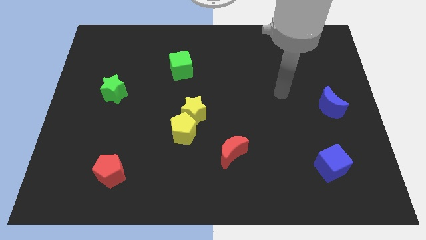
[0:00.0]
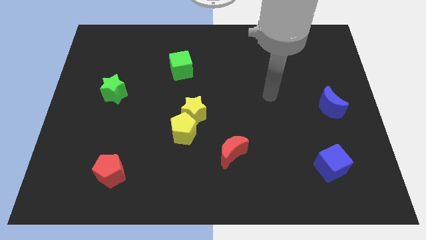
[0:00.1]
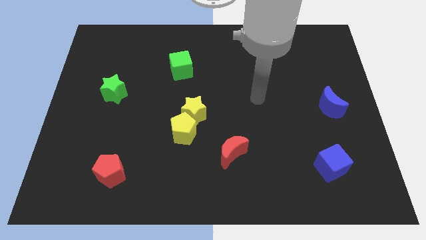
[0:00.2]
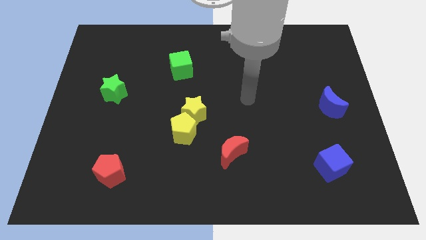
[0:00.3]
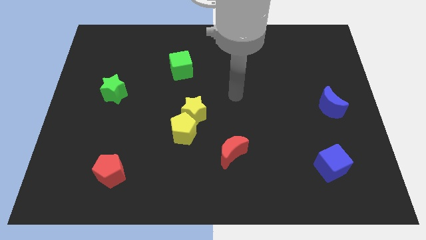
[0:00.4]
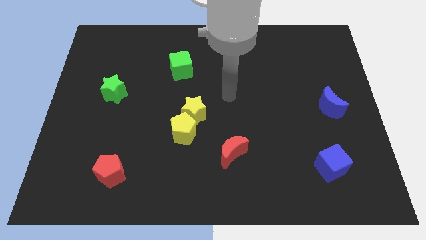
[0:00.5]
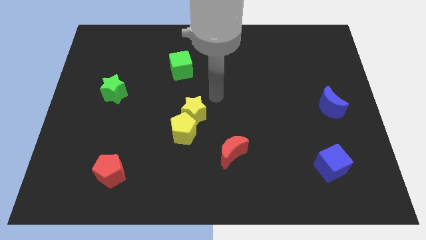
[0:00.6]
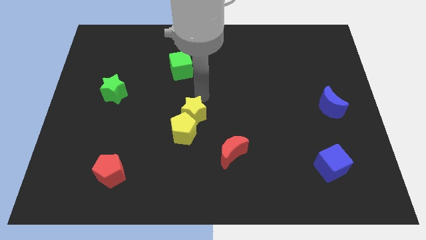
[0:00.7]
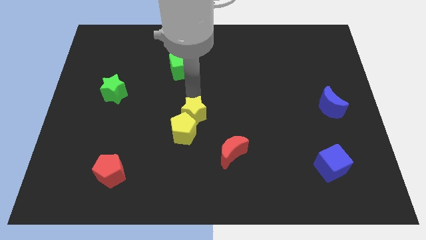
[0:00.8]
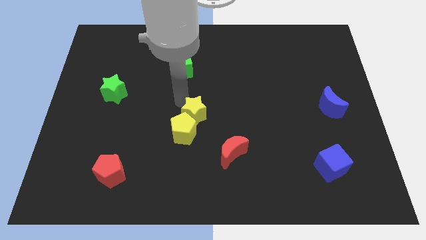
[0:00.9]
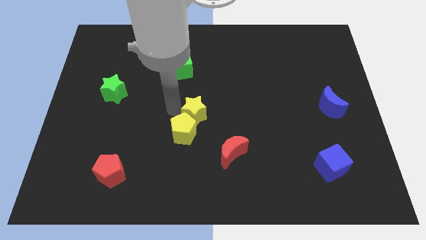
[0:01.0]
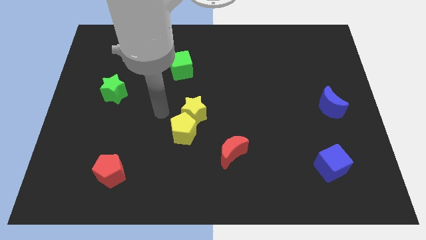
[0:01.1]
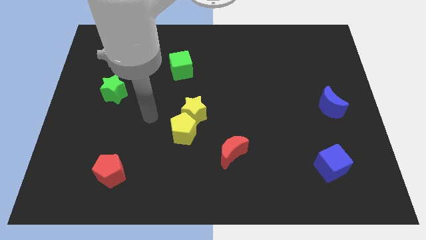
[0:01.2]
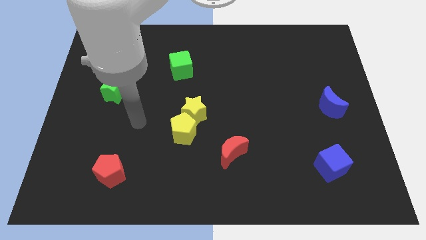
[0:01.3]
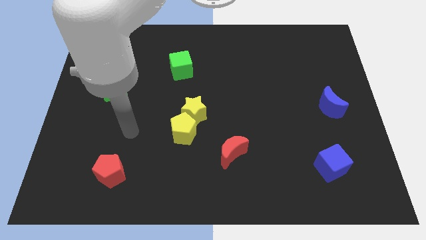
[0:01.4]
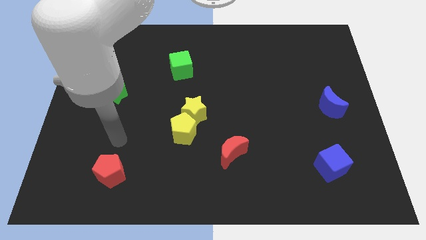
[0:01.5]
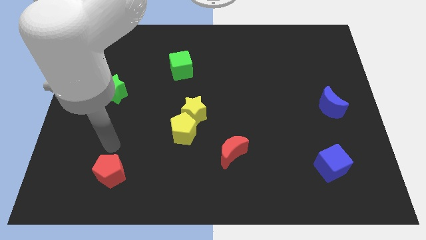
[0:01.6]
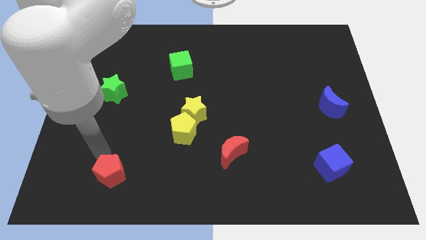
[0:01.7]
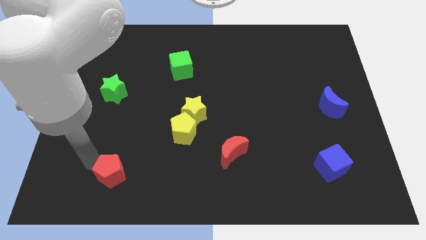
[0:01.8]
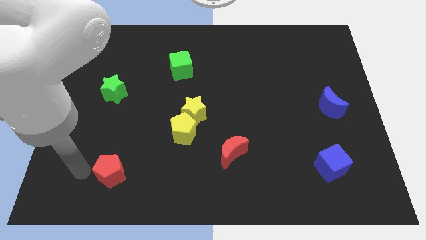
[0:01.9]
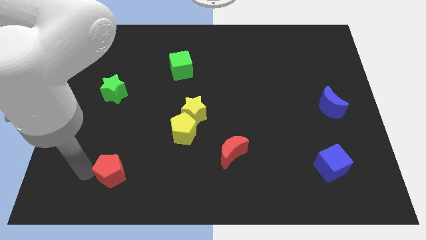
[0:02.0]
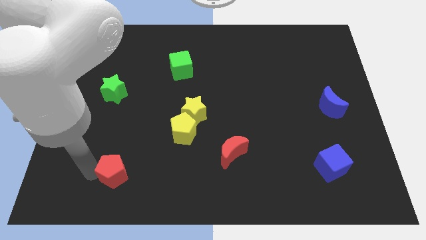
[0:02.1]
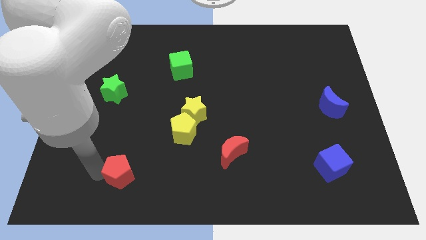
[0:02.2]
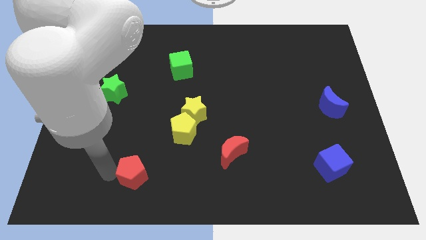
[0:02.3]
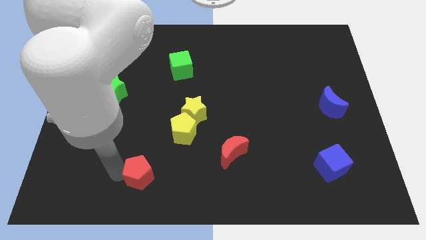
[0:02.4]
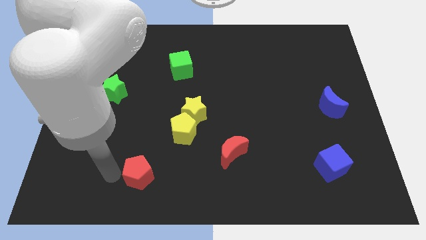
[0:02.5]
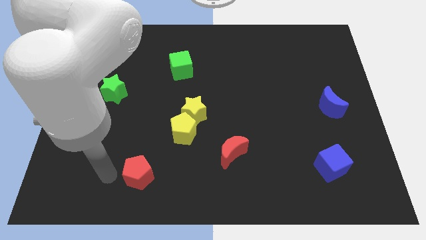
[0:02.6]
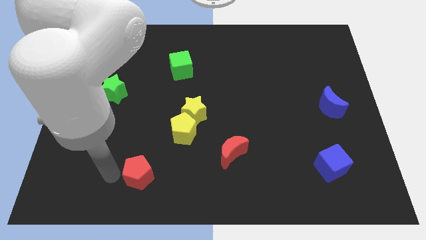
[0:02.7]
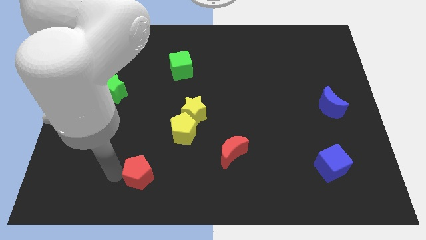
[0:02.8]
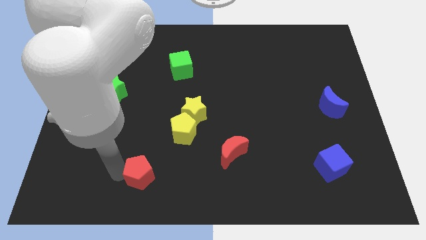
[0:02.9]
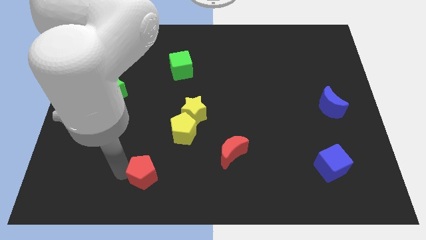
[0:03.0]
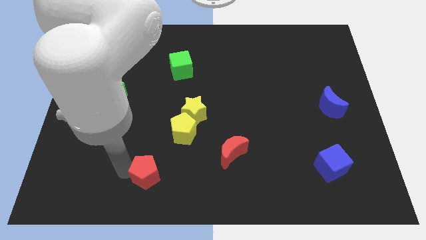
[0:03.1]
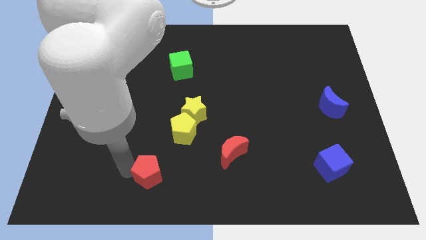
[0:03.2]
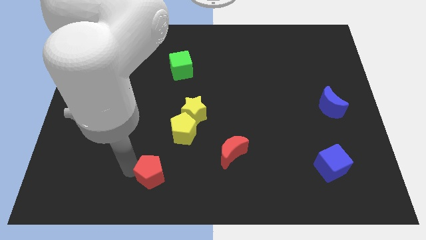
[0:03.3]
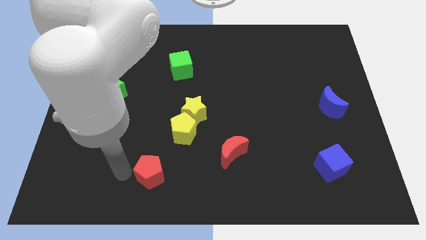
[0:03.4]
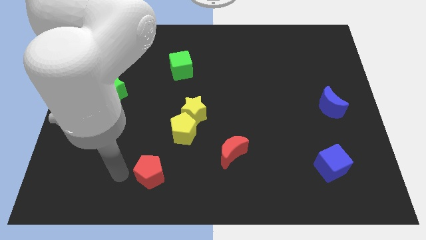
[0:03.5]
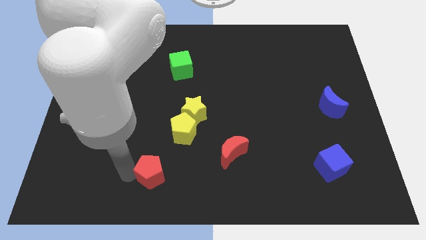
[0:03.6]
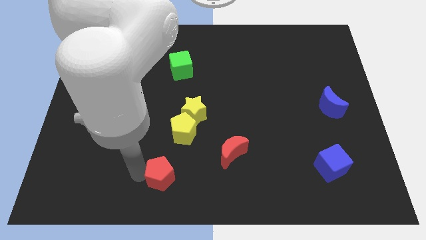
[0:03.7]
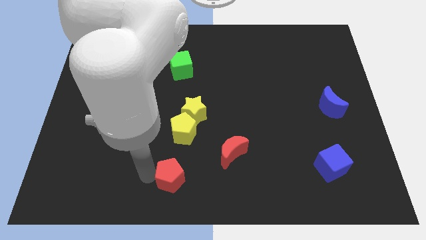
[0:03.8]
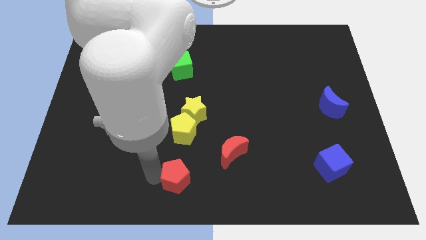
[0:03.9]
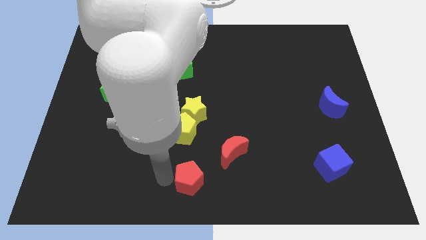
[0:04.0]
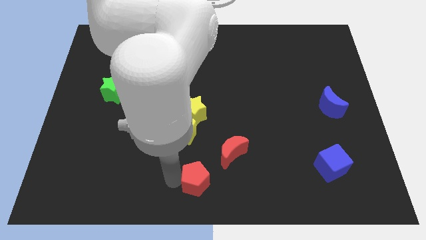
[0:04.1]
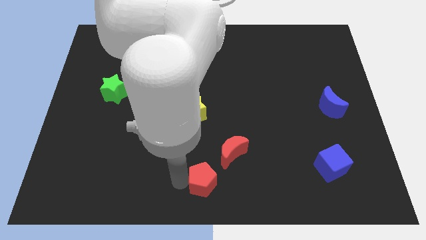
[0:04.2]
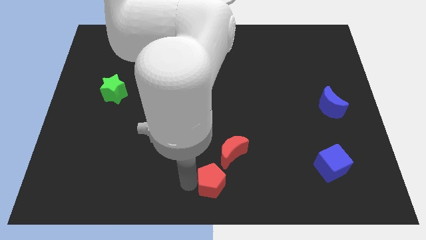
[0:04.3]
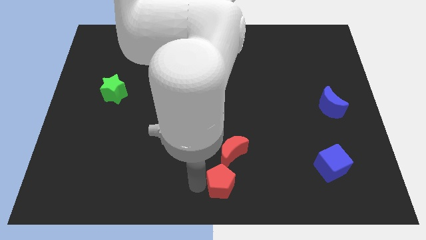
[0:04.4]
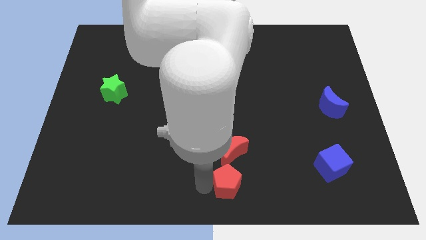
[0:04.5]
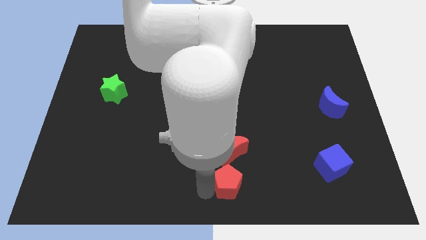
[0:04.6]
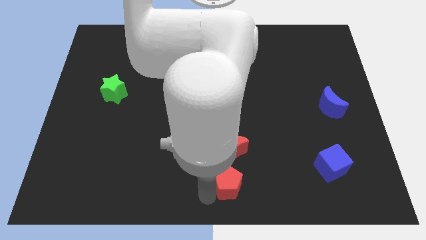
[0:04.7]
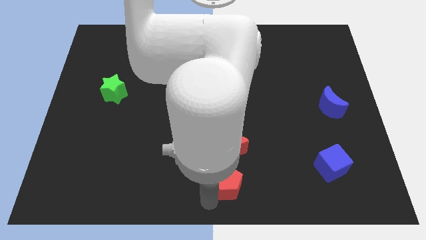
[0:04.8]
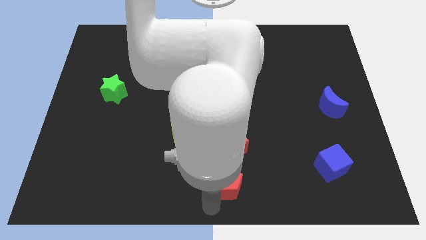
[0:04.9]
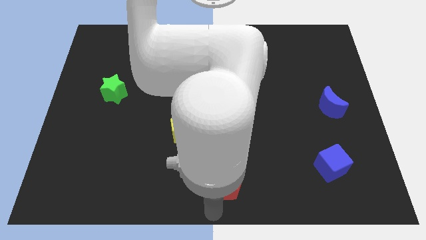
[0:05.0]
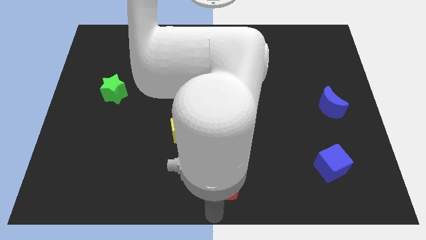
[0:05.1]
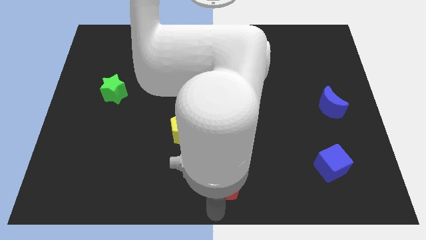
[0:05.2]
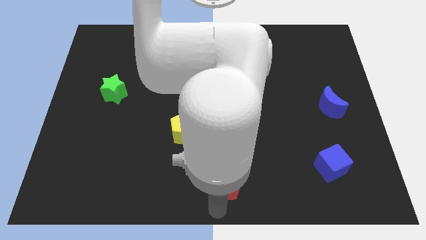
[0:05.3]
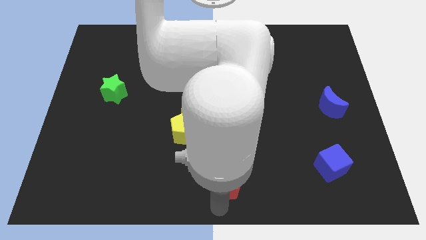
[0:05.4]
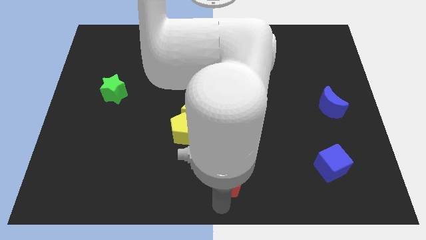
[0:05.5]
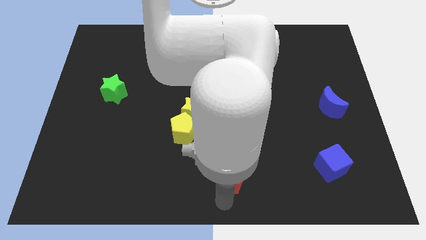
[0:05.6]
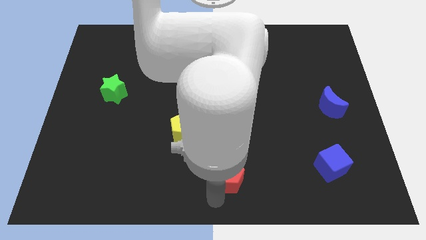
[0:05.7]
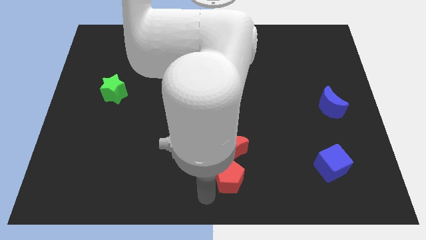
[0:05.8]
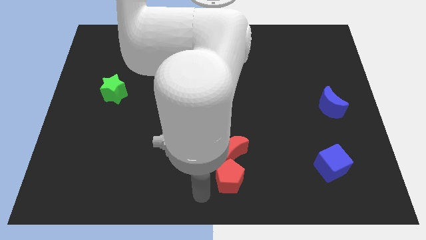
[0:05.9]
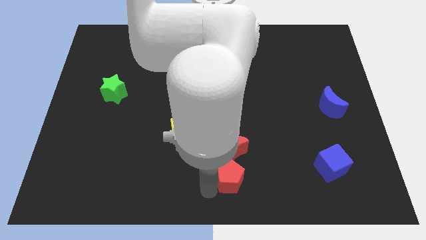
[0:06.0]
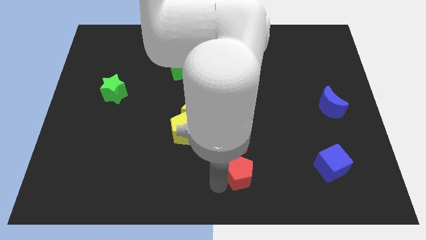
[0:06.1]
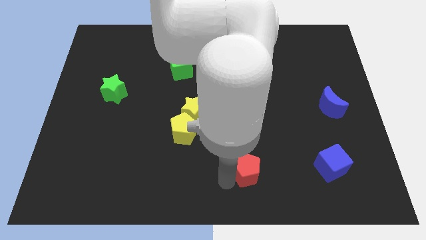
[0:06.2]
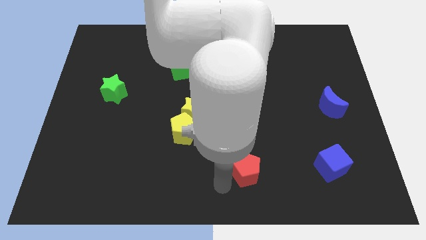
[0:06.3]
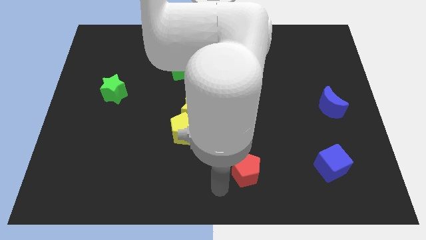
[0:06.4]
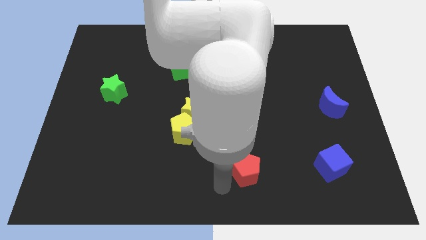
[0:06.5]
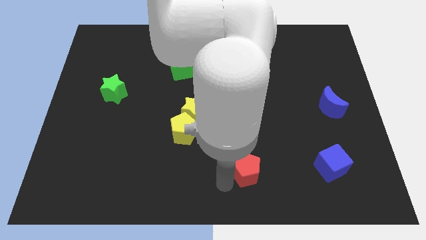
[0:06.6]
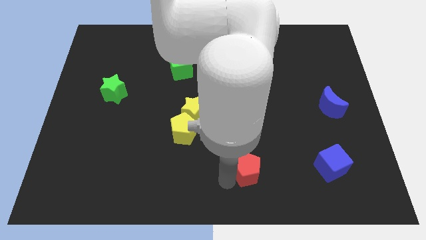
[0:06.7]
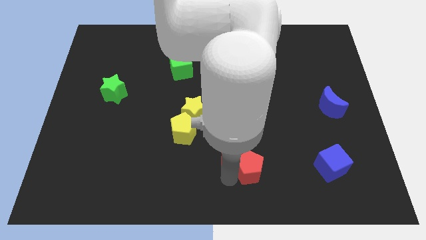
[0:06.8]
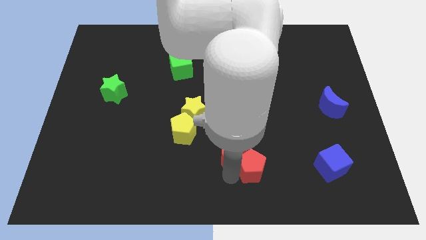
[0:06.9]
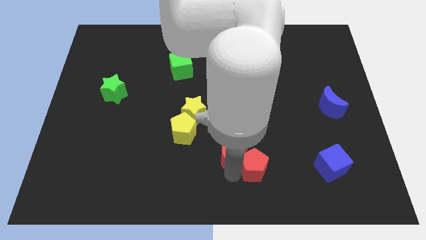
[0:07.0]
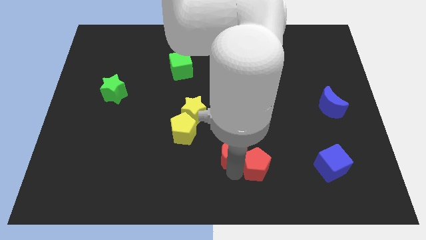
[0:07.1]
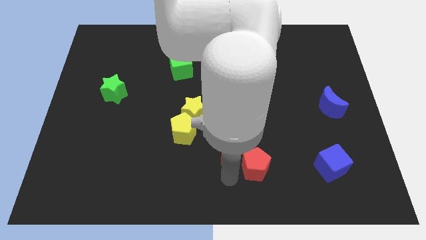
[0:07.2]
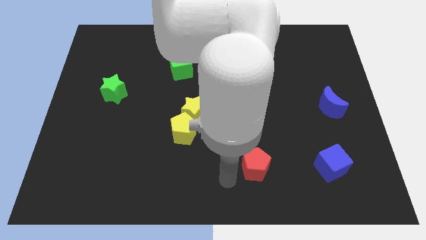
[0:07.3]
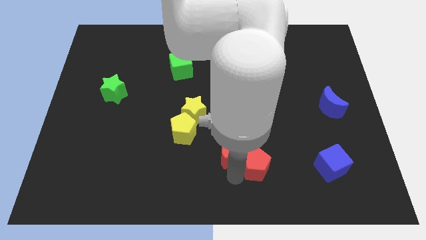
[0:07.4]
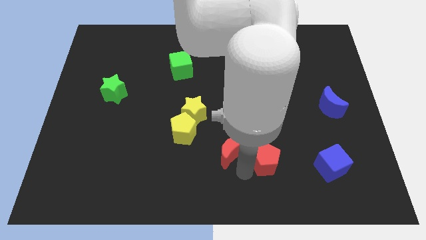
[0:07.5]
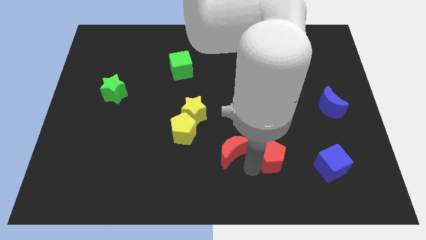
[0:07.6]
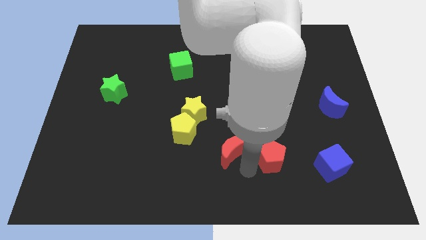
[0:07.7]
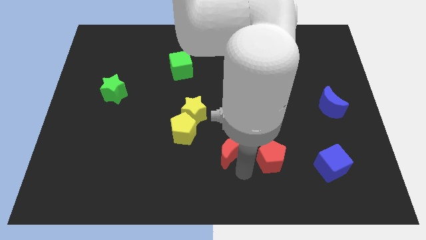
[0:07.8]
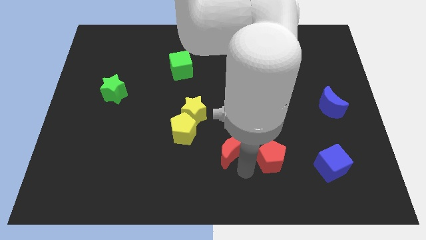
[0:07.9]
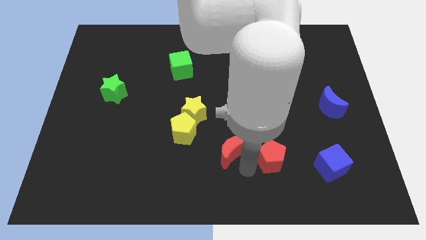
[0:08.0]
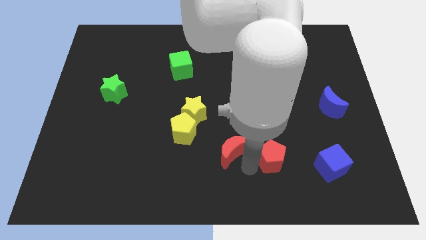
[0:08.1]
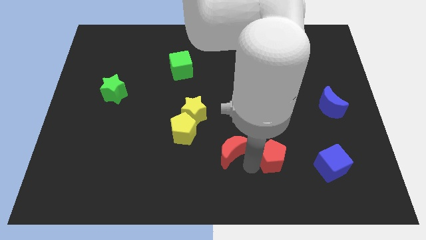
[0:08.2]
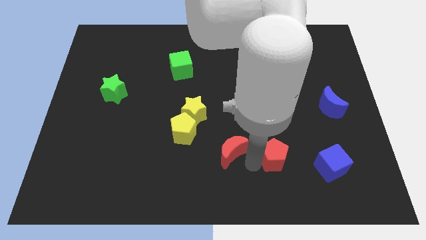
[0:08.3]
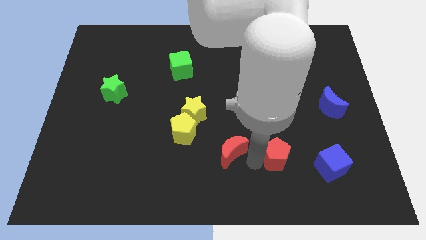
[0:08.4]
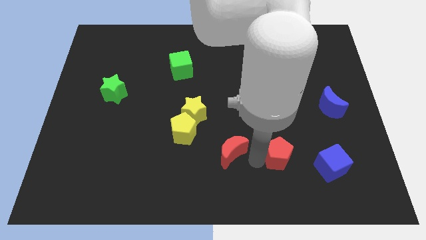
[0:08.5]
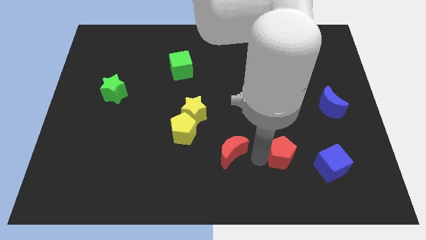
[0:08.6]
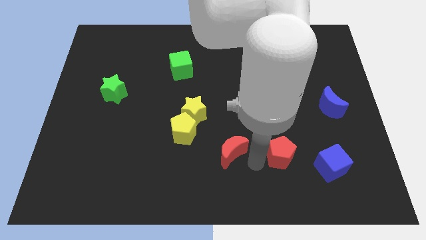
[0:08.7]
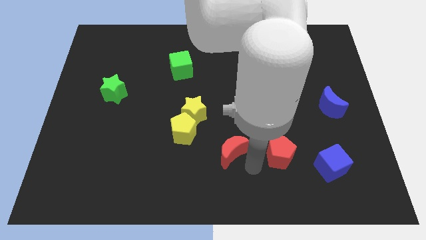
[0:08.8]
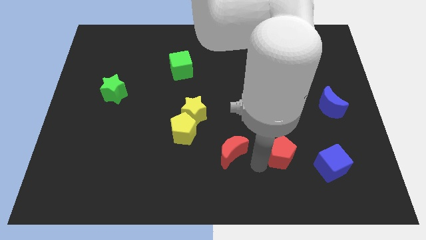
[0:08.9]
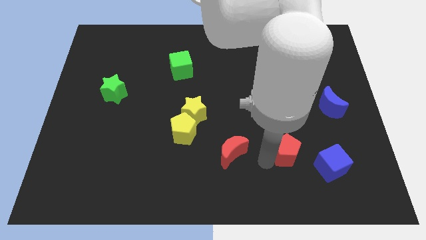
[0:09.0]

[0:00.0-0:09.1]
put the red pentagon to the top left of the blue cube
